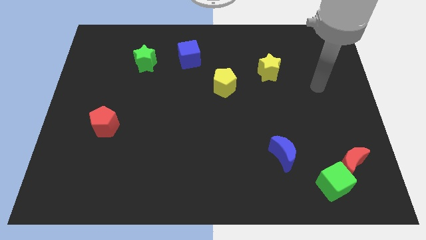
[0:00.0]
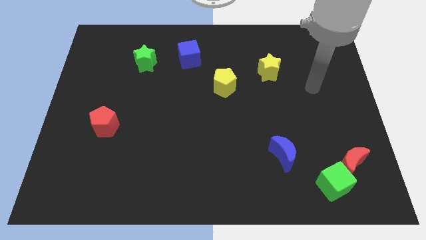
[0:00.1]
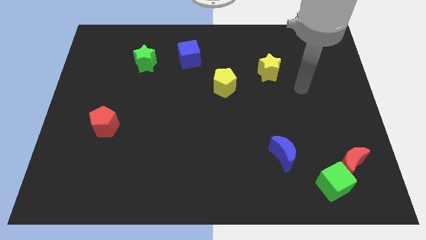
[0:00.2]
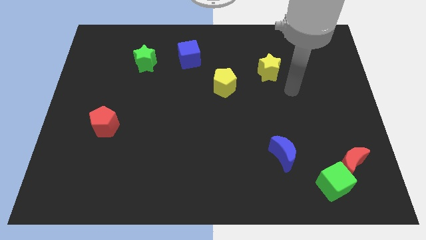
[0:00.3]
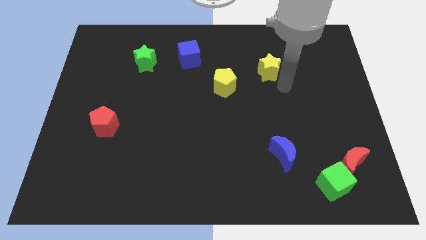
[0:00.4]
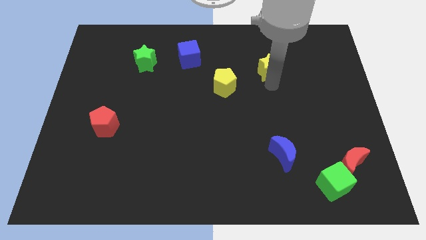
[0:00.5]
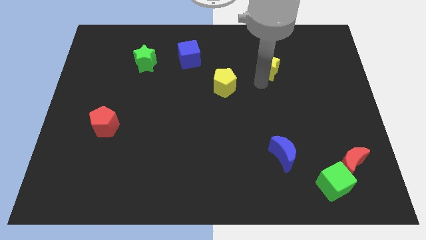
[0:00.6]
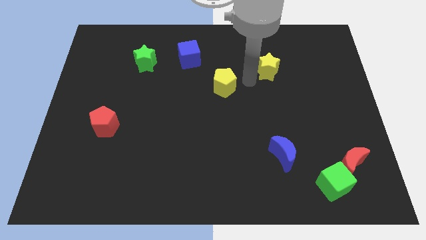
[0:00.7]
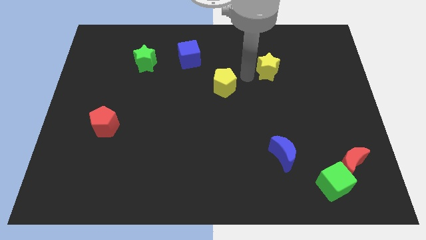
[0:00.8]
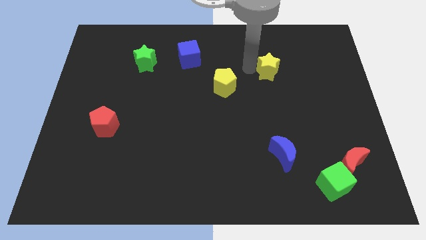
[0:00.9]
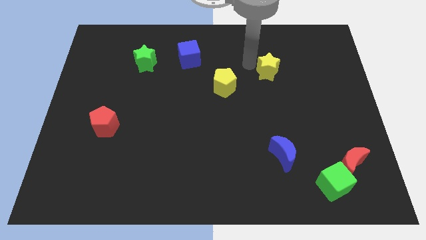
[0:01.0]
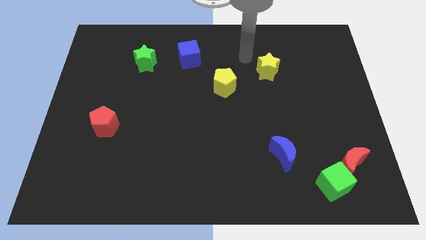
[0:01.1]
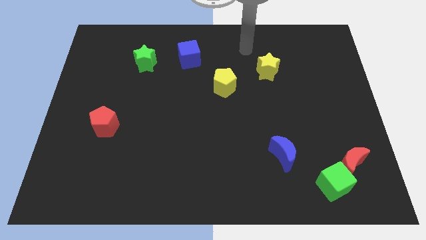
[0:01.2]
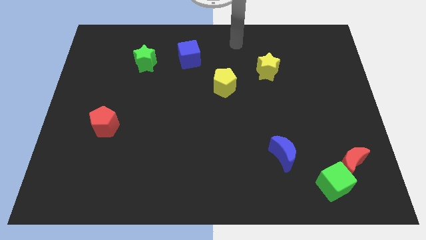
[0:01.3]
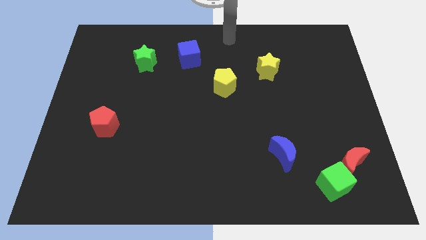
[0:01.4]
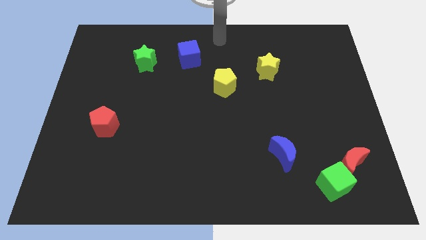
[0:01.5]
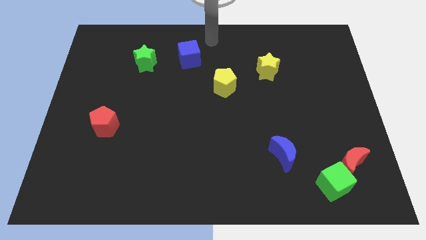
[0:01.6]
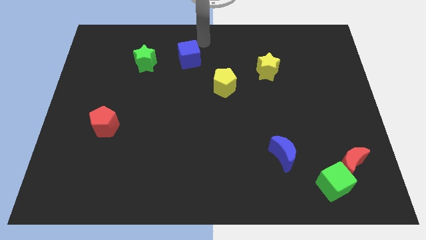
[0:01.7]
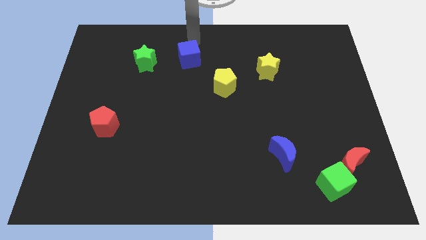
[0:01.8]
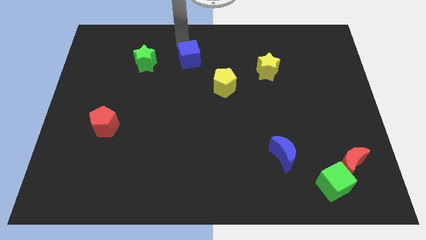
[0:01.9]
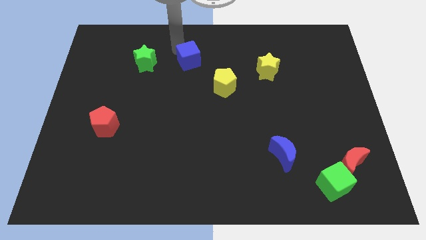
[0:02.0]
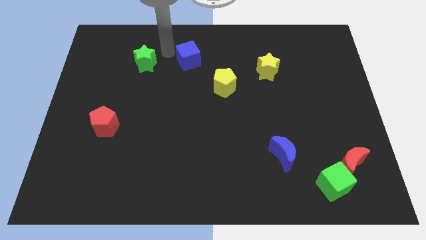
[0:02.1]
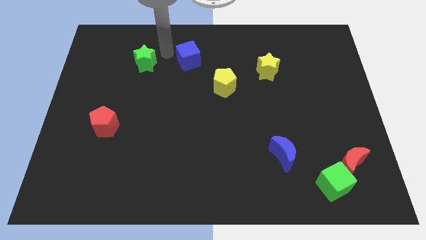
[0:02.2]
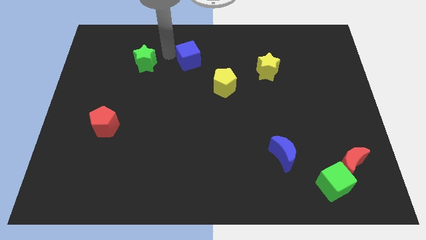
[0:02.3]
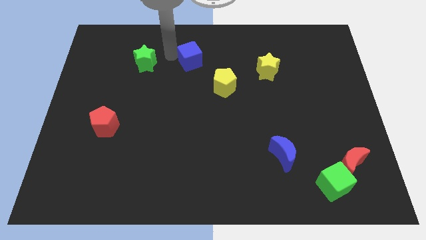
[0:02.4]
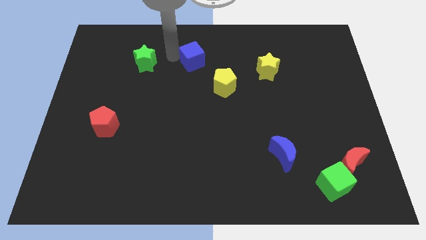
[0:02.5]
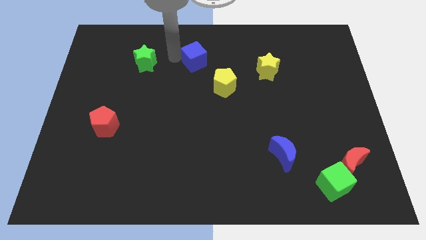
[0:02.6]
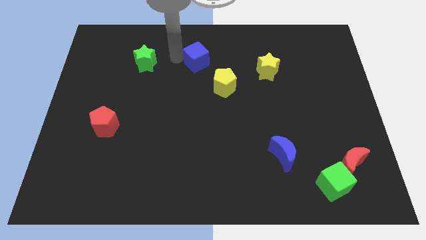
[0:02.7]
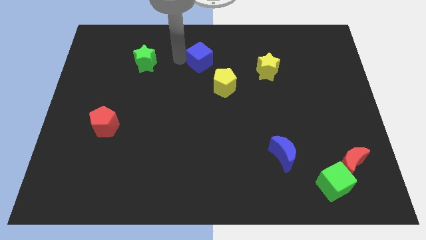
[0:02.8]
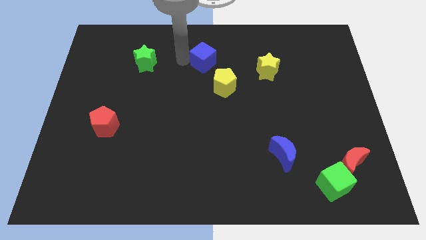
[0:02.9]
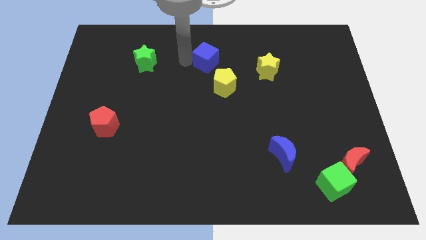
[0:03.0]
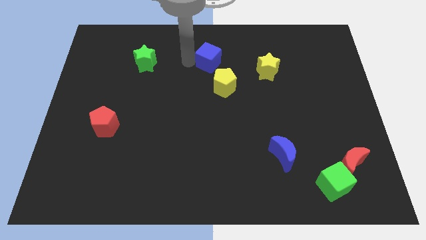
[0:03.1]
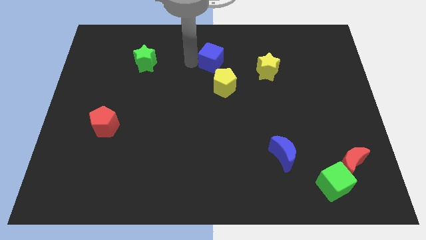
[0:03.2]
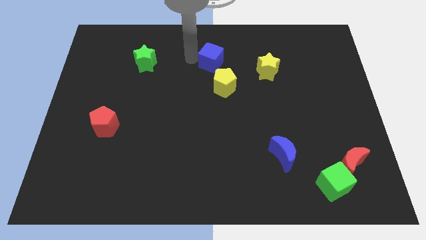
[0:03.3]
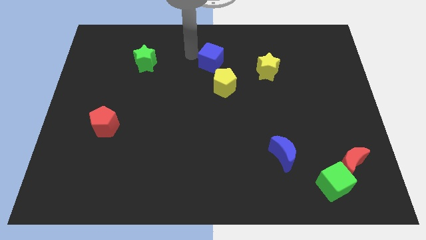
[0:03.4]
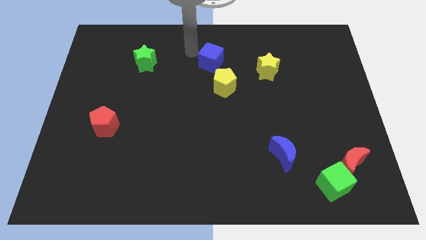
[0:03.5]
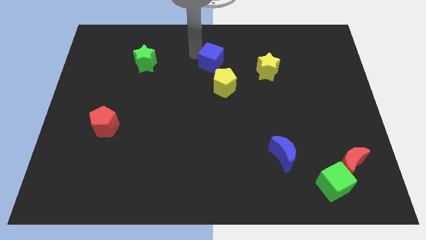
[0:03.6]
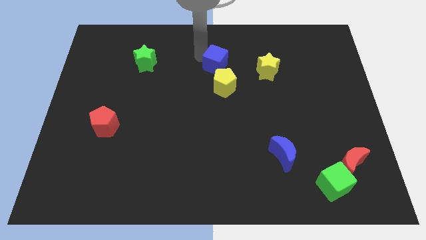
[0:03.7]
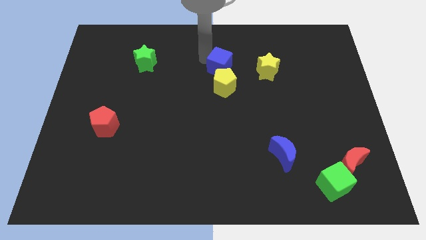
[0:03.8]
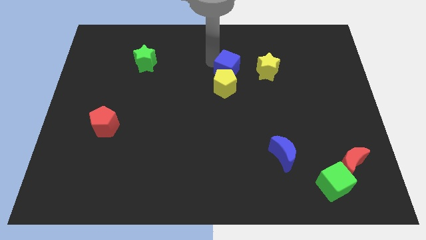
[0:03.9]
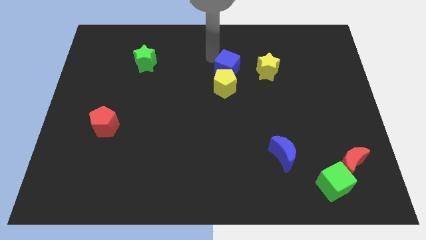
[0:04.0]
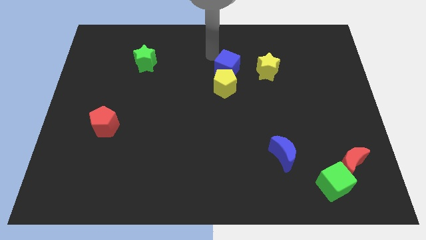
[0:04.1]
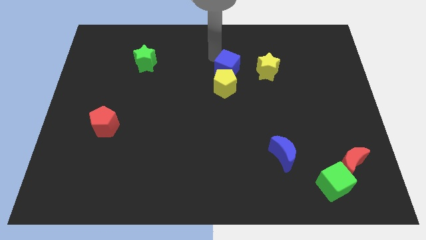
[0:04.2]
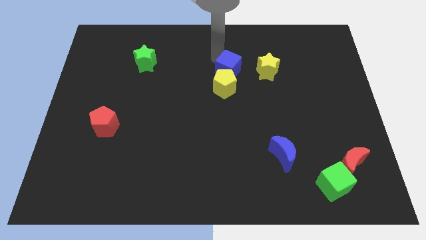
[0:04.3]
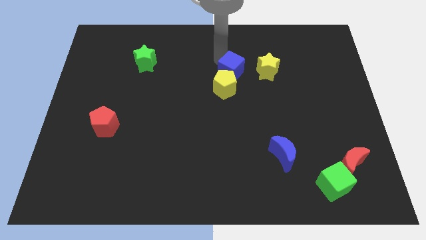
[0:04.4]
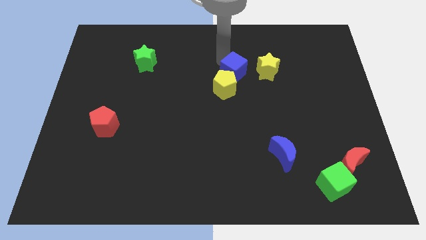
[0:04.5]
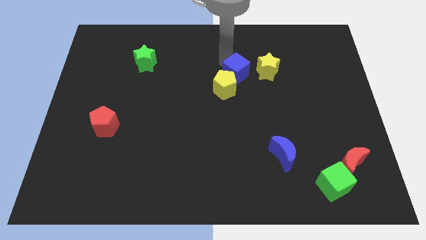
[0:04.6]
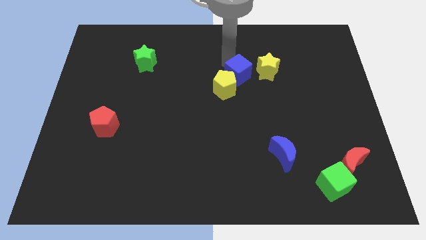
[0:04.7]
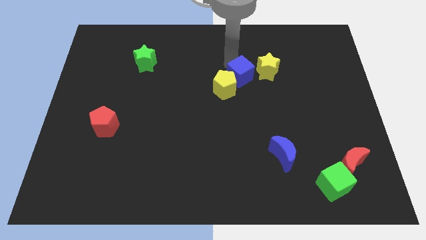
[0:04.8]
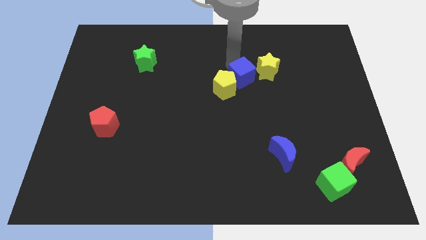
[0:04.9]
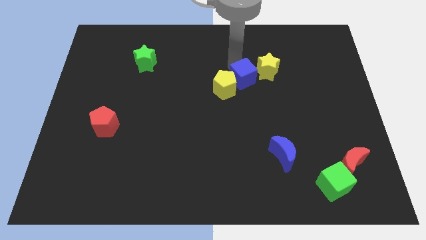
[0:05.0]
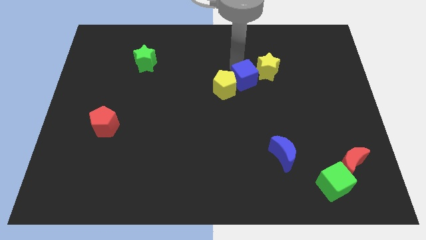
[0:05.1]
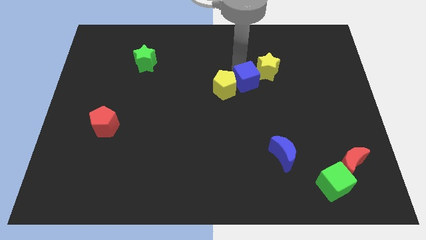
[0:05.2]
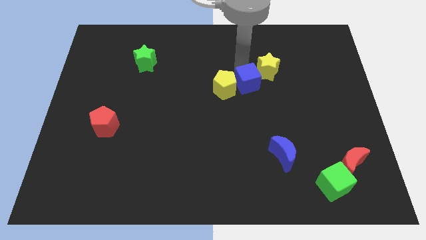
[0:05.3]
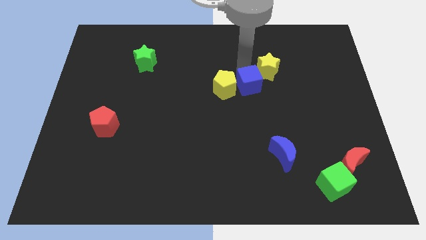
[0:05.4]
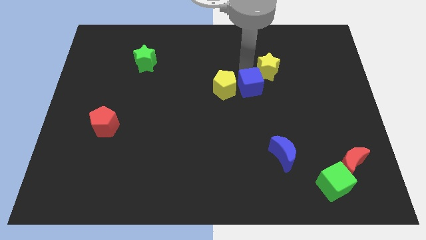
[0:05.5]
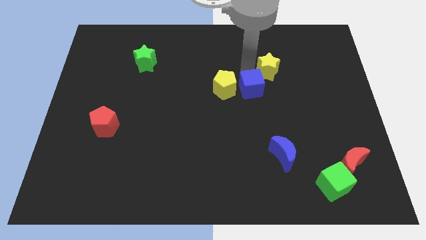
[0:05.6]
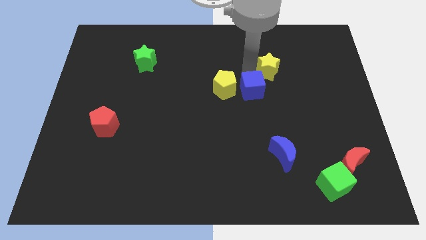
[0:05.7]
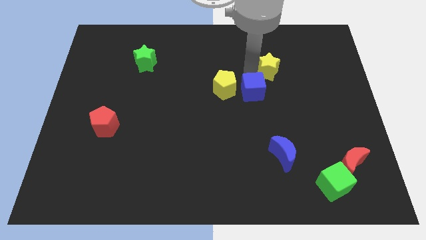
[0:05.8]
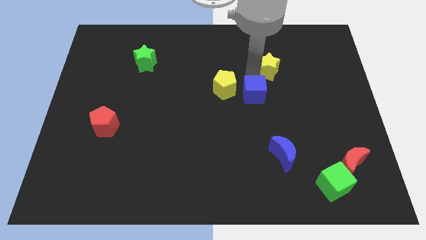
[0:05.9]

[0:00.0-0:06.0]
slide the blue cube diagonally downwards and right

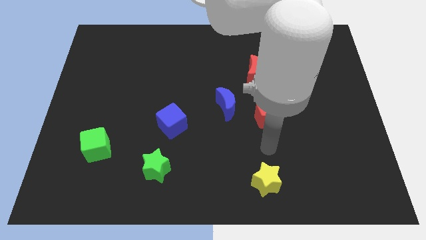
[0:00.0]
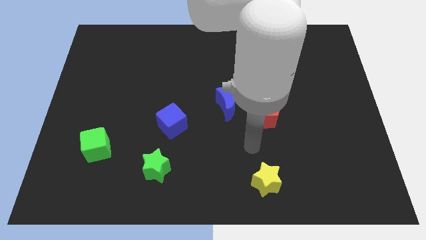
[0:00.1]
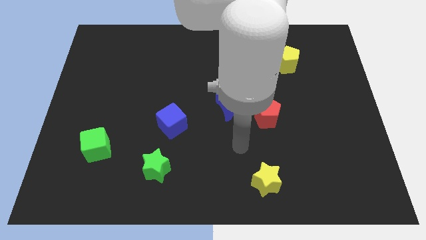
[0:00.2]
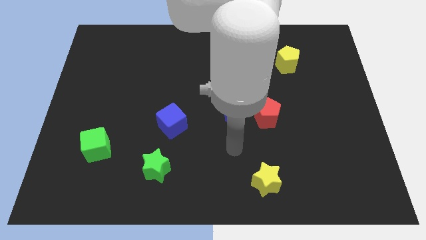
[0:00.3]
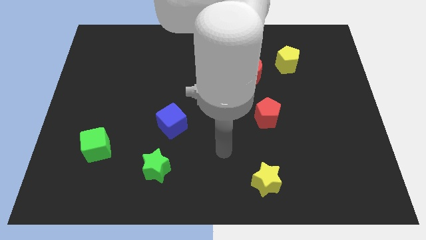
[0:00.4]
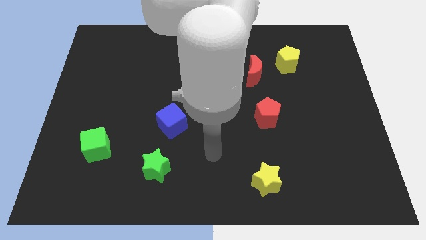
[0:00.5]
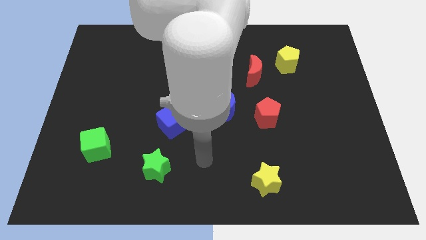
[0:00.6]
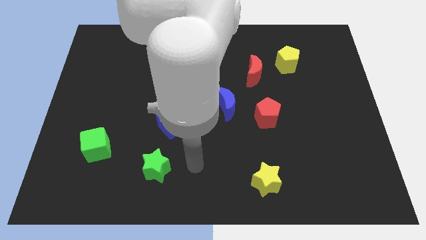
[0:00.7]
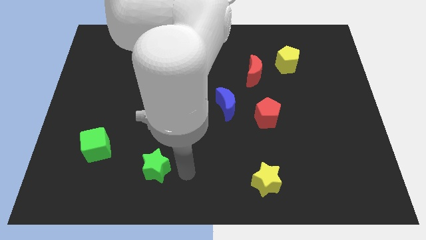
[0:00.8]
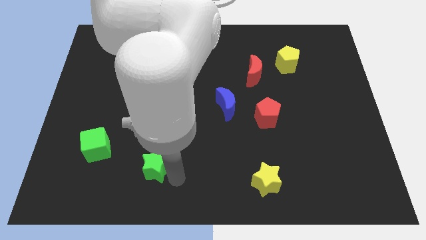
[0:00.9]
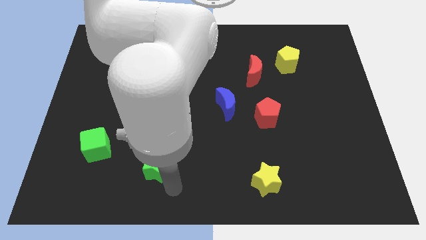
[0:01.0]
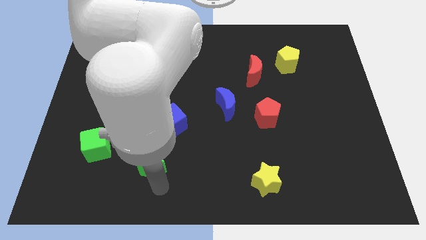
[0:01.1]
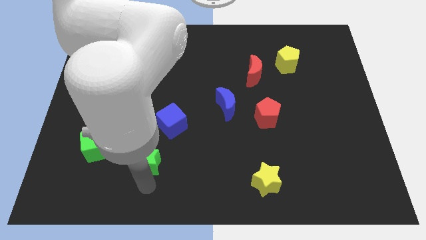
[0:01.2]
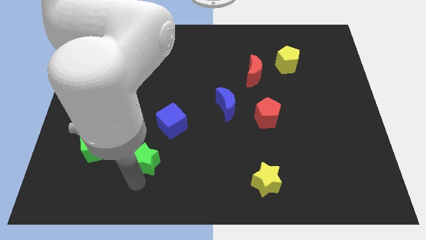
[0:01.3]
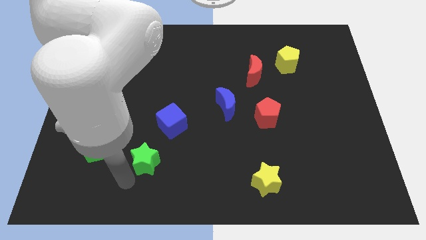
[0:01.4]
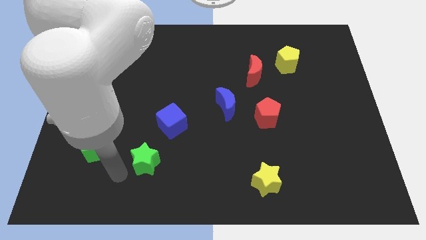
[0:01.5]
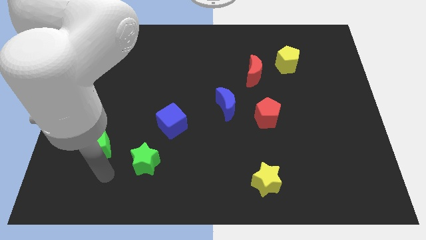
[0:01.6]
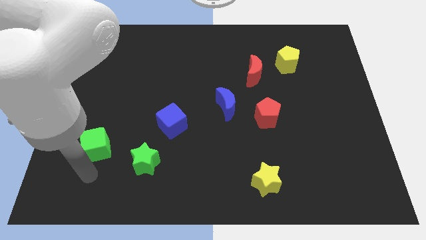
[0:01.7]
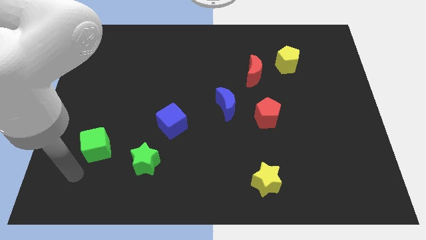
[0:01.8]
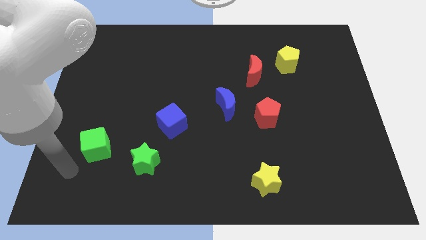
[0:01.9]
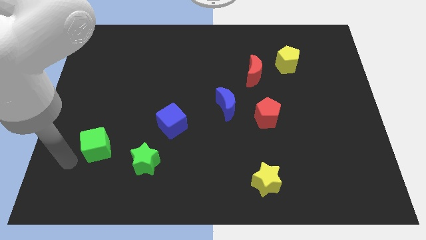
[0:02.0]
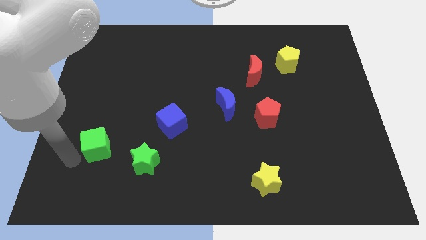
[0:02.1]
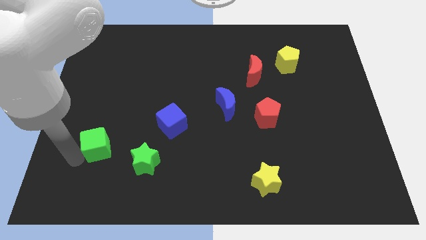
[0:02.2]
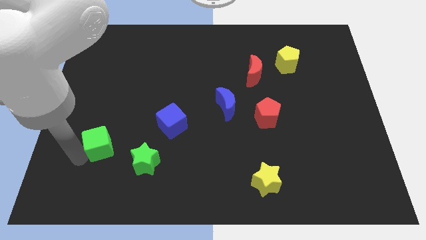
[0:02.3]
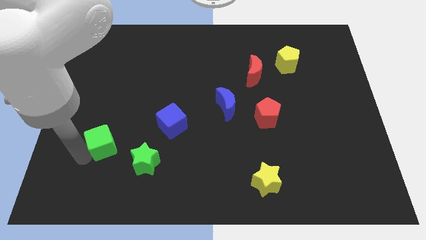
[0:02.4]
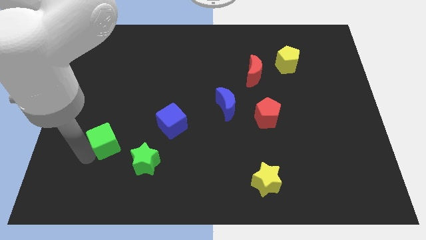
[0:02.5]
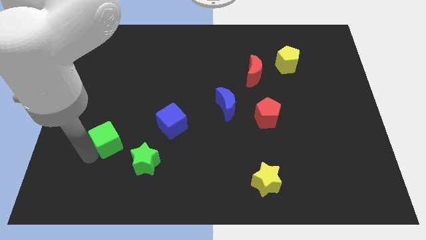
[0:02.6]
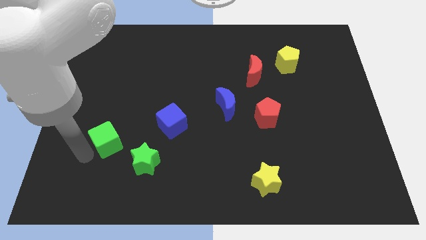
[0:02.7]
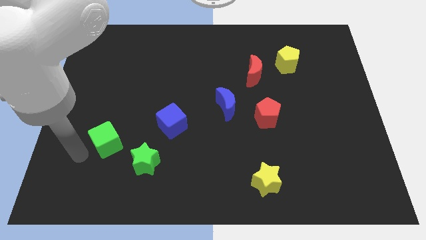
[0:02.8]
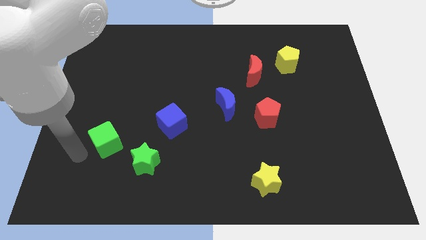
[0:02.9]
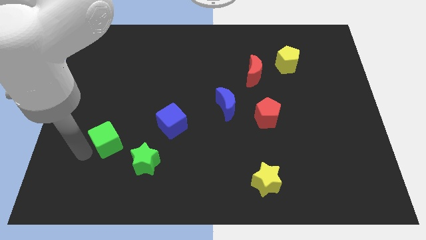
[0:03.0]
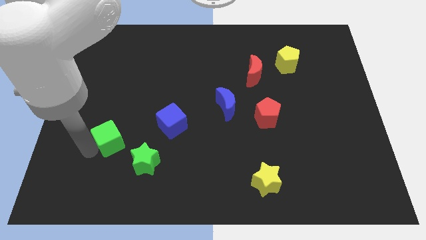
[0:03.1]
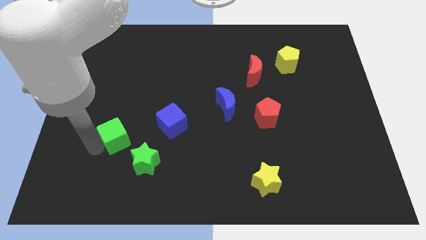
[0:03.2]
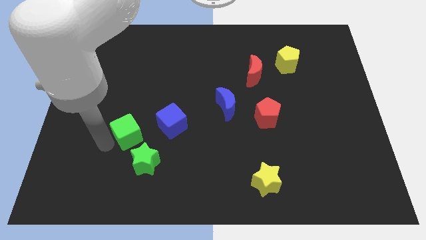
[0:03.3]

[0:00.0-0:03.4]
slightly push the green cube upwards and to the right
